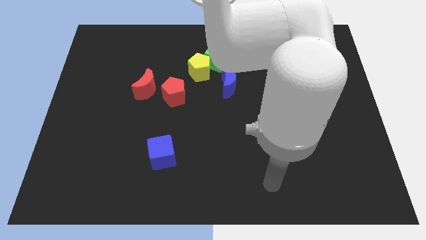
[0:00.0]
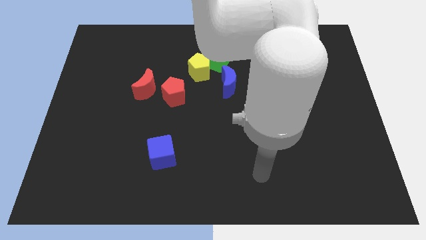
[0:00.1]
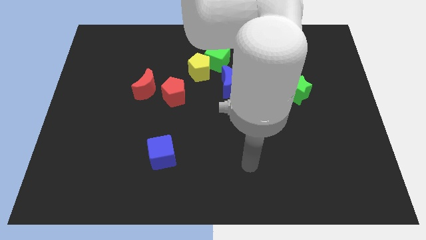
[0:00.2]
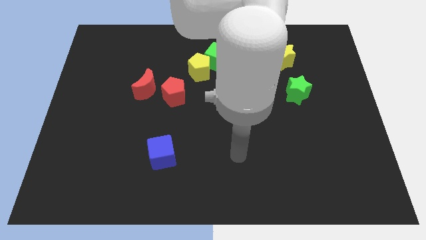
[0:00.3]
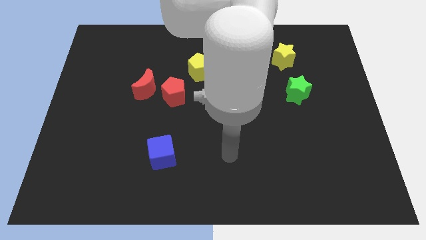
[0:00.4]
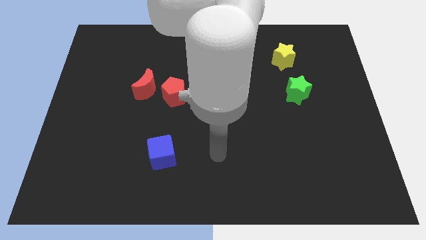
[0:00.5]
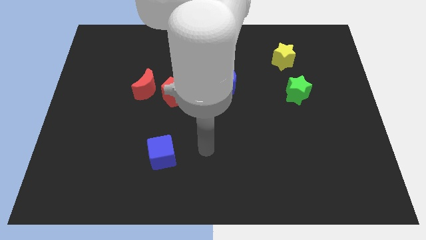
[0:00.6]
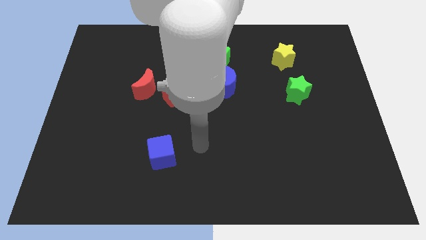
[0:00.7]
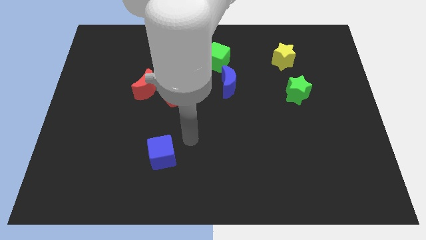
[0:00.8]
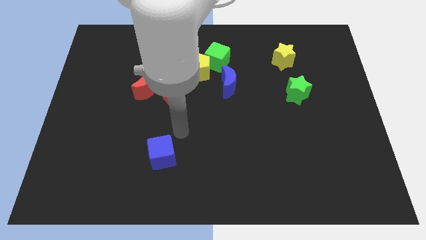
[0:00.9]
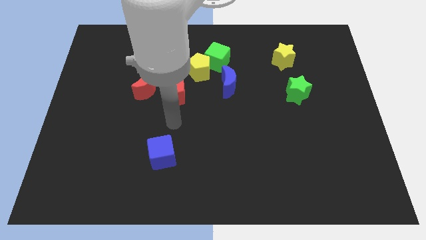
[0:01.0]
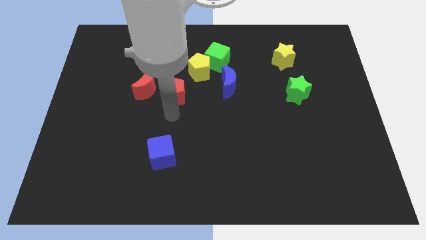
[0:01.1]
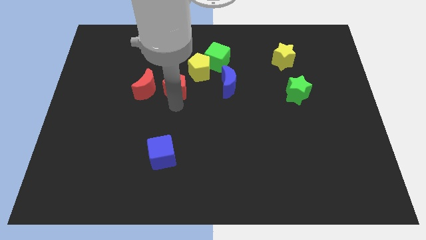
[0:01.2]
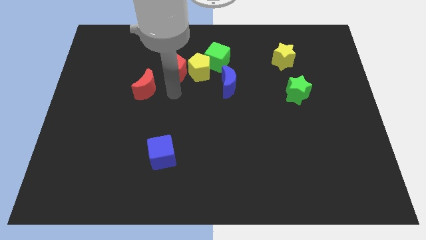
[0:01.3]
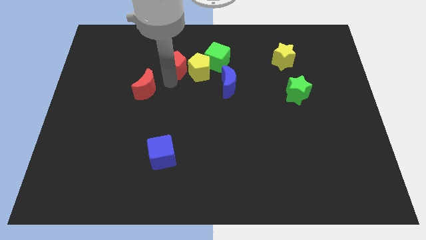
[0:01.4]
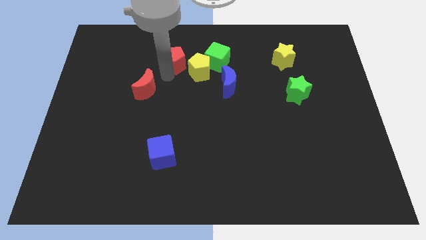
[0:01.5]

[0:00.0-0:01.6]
move the red moon away from the red pentagon

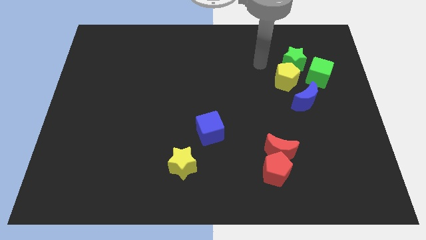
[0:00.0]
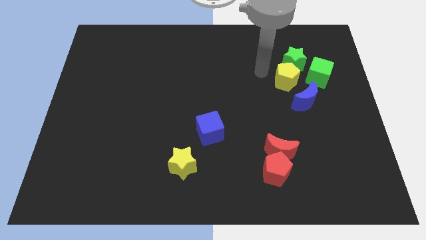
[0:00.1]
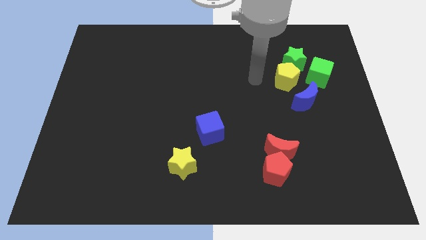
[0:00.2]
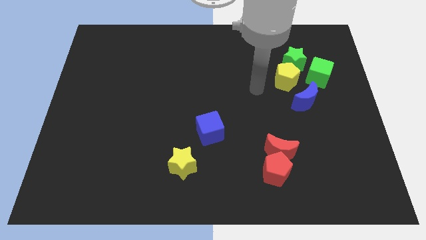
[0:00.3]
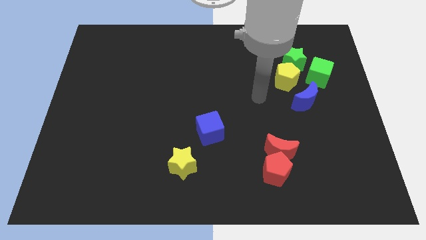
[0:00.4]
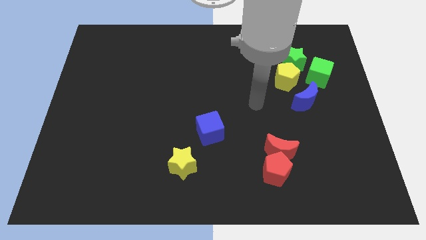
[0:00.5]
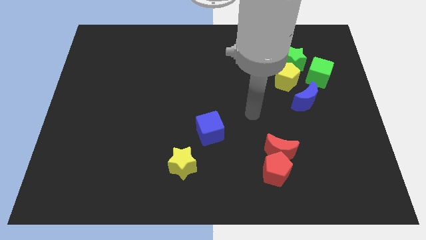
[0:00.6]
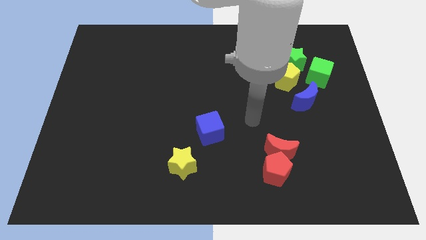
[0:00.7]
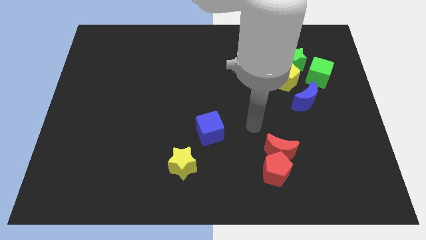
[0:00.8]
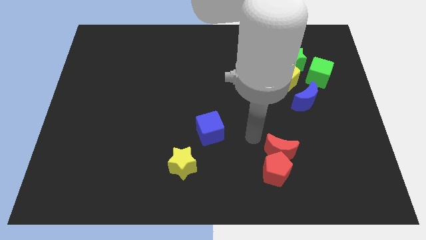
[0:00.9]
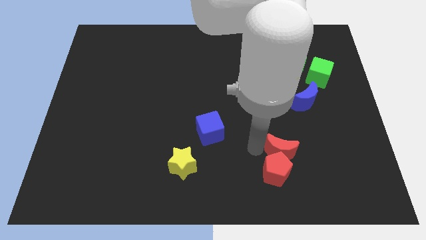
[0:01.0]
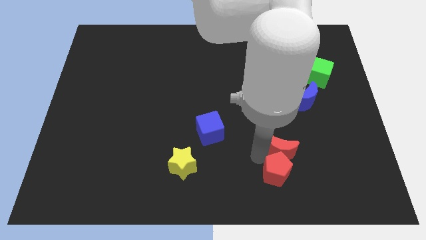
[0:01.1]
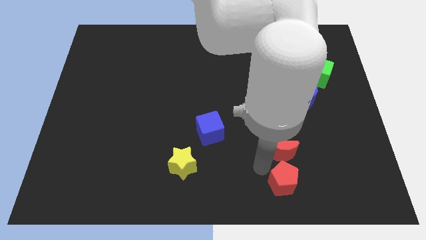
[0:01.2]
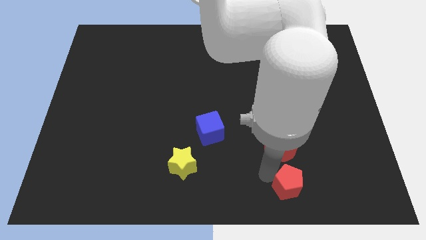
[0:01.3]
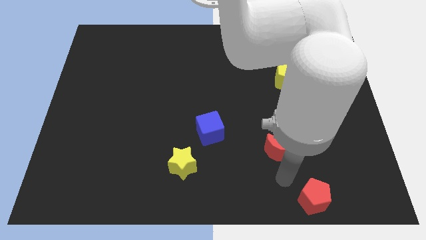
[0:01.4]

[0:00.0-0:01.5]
separate the red moon from the red pentagon

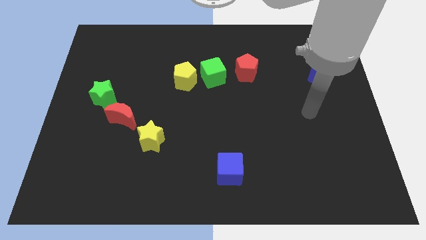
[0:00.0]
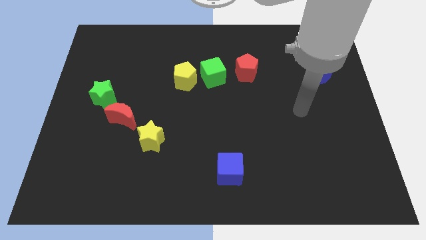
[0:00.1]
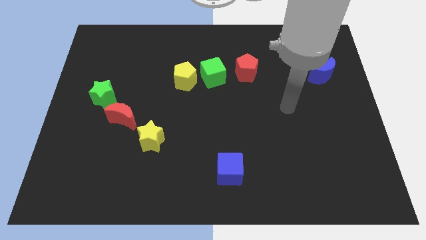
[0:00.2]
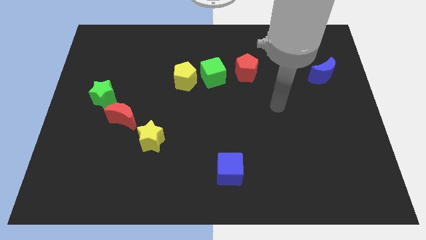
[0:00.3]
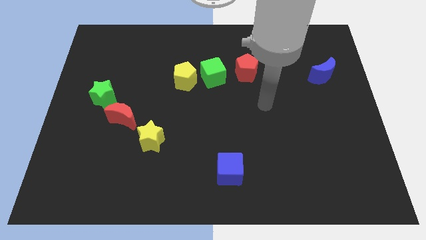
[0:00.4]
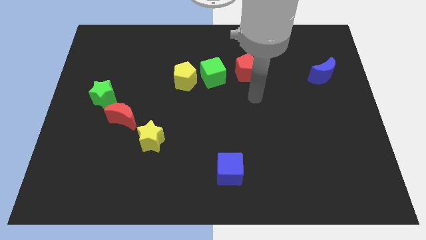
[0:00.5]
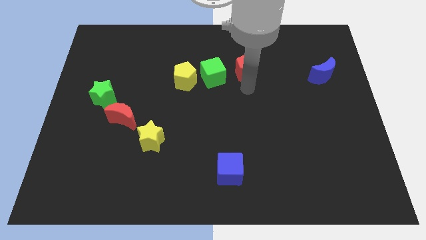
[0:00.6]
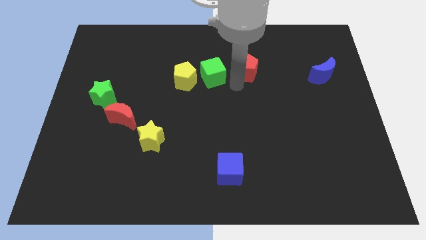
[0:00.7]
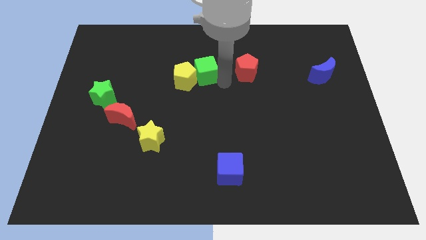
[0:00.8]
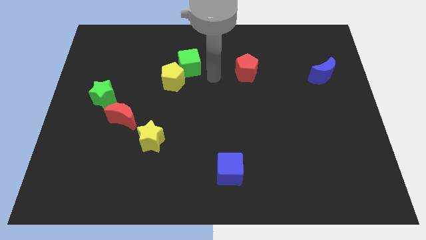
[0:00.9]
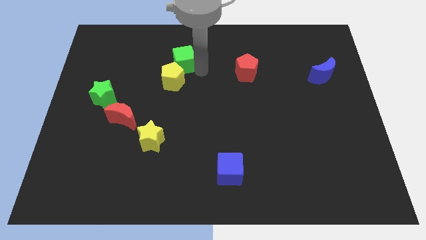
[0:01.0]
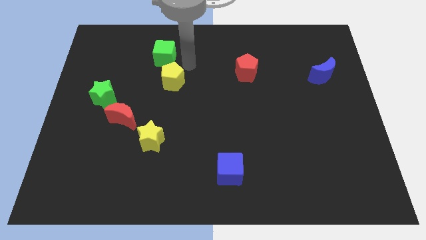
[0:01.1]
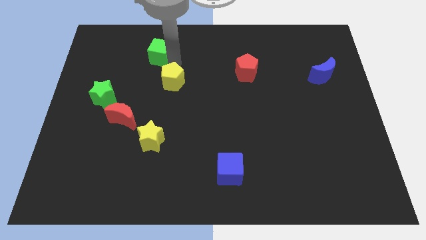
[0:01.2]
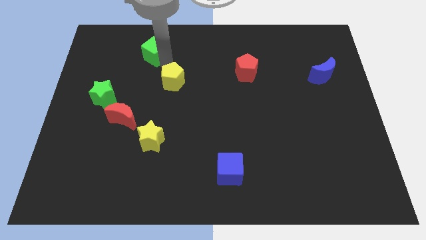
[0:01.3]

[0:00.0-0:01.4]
pull the yellow pentagon apart from the green cube

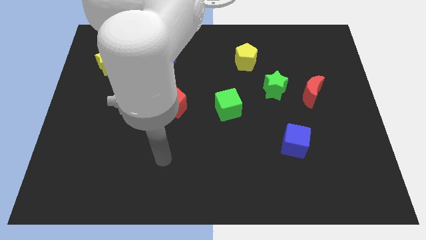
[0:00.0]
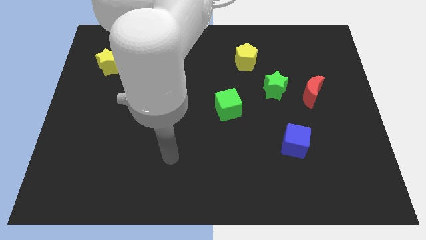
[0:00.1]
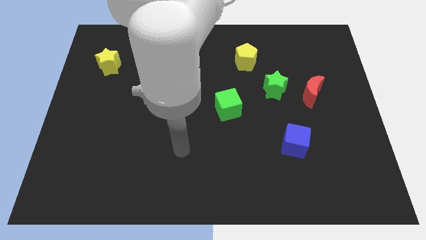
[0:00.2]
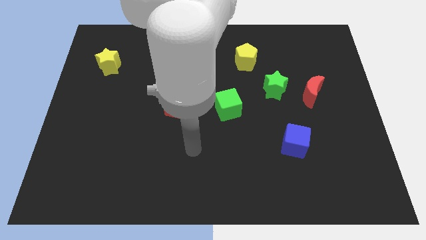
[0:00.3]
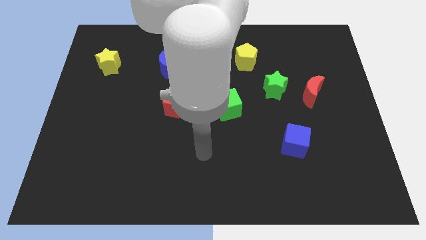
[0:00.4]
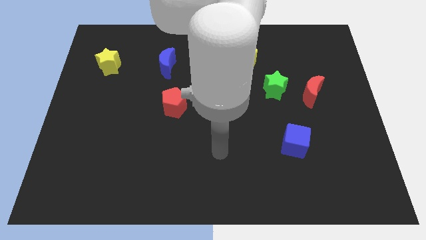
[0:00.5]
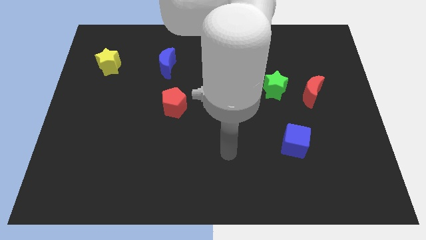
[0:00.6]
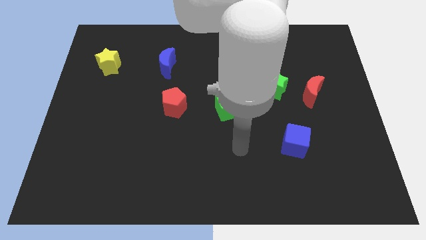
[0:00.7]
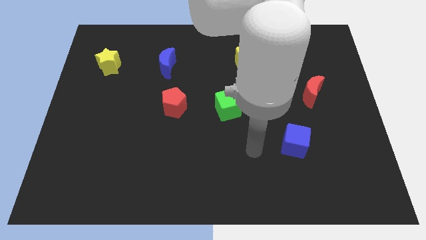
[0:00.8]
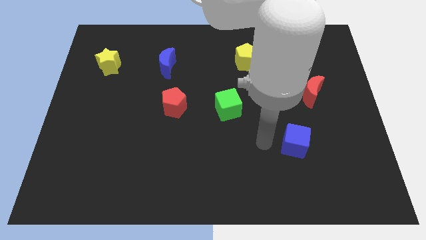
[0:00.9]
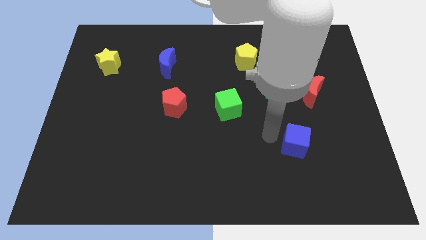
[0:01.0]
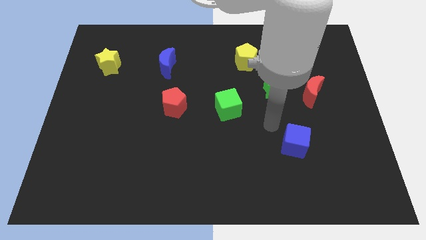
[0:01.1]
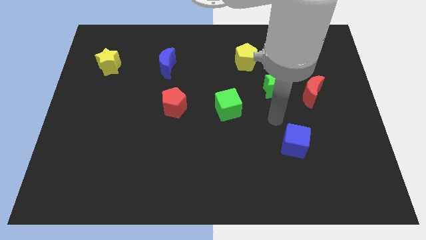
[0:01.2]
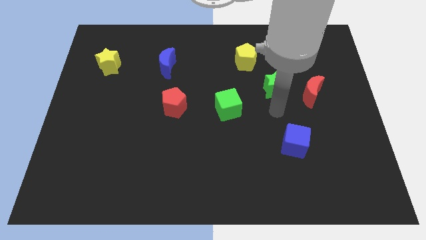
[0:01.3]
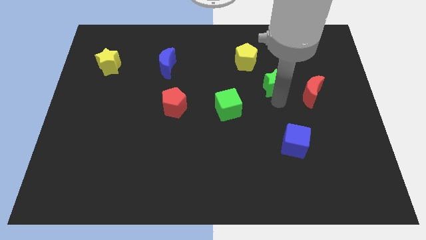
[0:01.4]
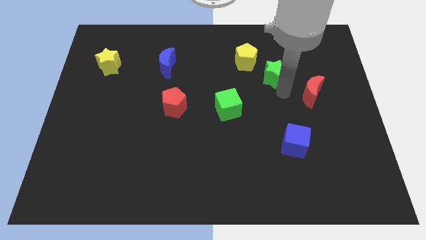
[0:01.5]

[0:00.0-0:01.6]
pull the red moon apart from the green star

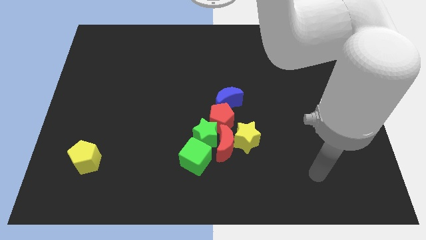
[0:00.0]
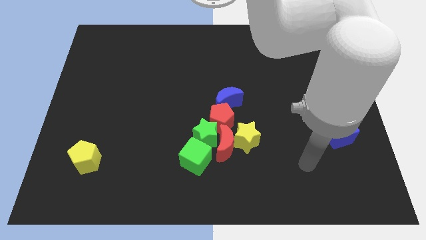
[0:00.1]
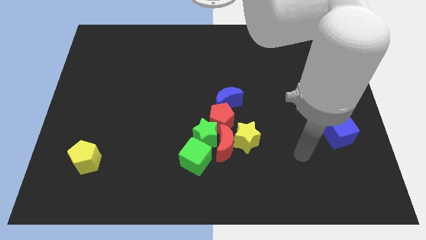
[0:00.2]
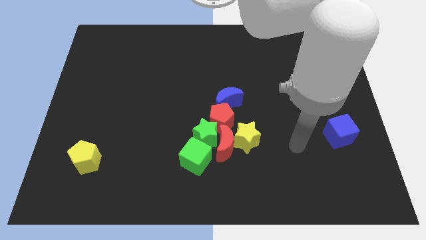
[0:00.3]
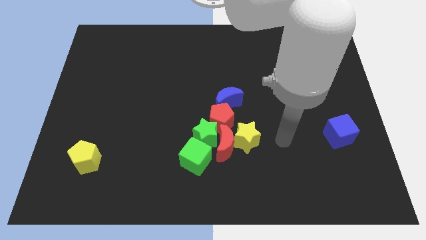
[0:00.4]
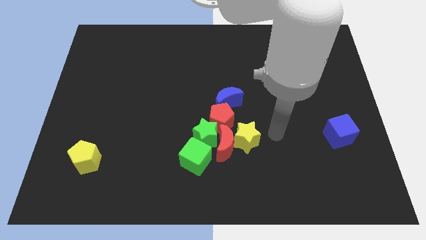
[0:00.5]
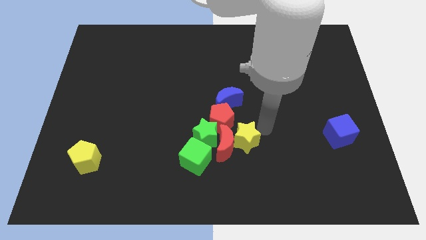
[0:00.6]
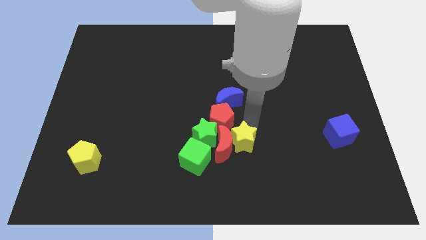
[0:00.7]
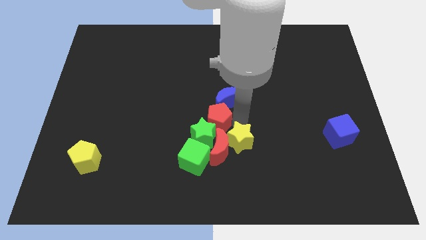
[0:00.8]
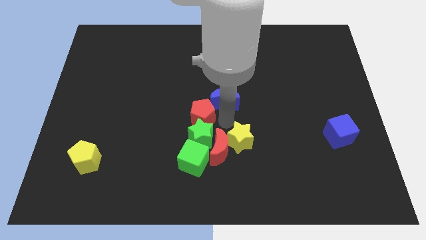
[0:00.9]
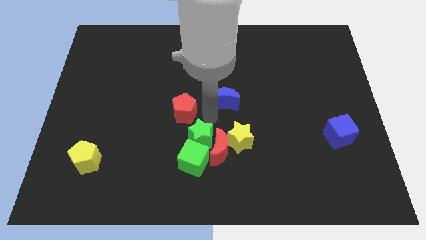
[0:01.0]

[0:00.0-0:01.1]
separate the blue moon from the red pentagon

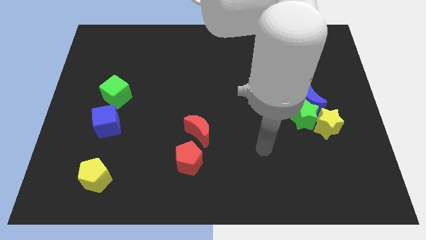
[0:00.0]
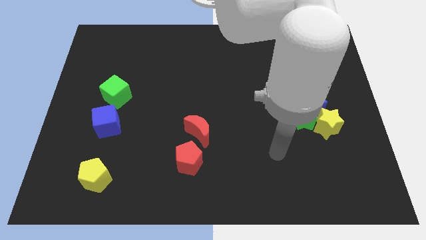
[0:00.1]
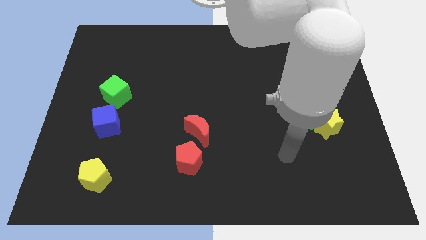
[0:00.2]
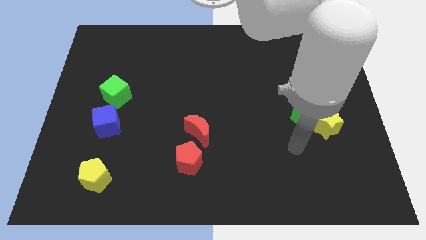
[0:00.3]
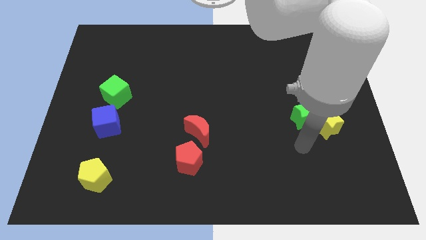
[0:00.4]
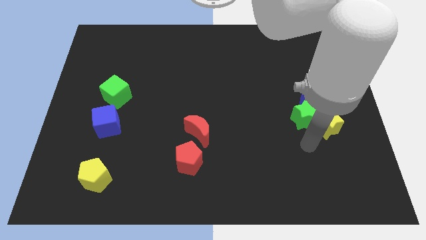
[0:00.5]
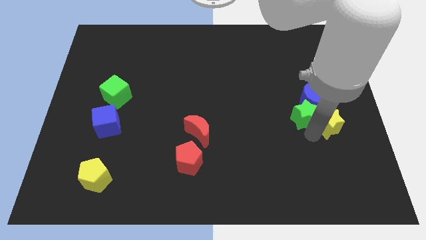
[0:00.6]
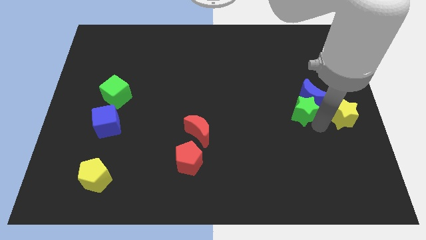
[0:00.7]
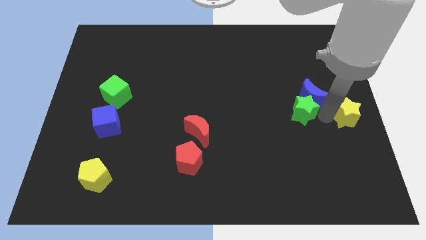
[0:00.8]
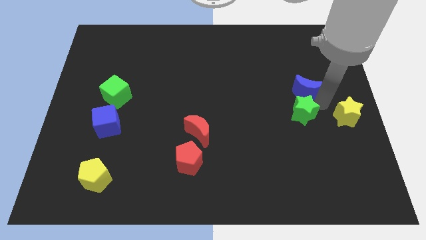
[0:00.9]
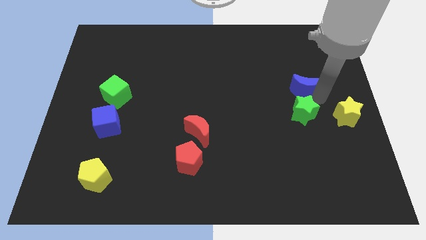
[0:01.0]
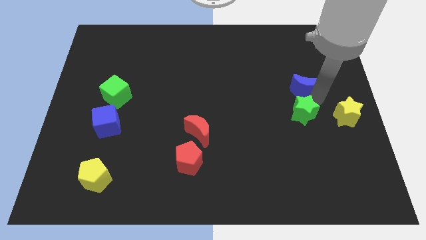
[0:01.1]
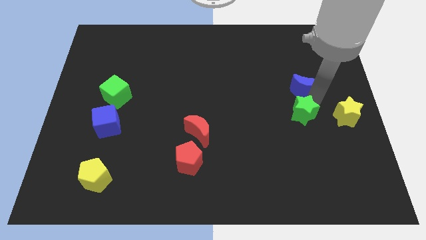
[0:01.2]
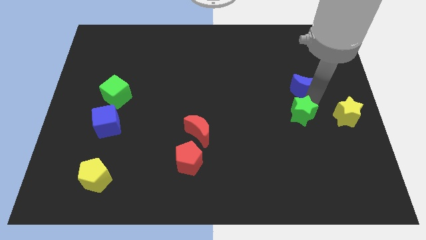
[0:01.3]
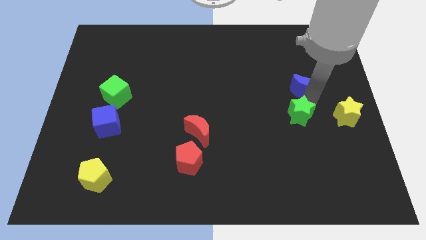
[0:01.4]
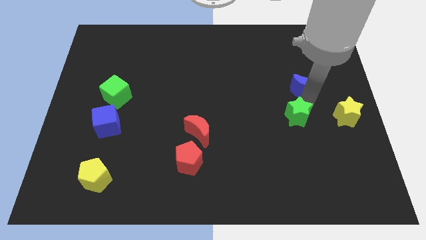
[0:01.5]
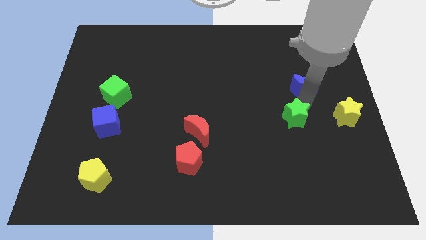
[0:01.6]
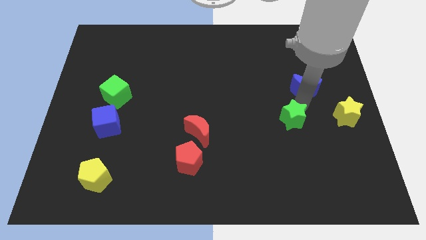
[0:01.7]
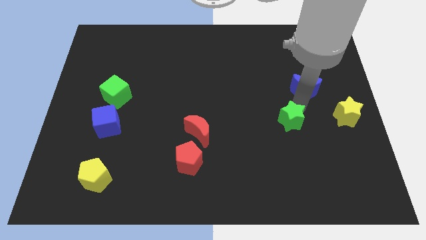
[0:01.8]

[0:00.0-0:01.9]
pull the green star apart from the blue moon and yellow star

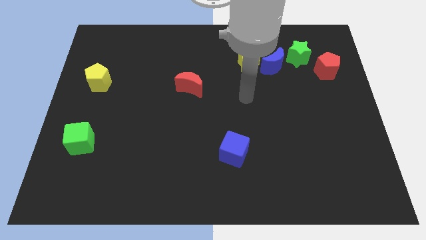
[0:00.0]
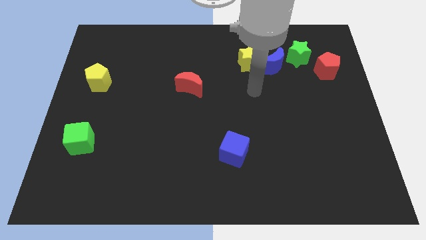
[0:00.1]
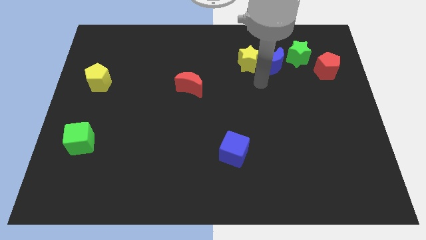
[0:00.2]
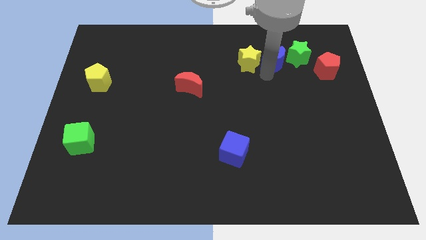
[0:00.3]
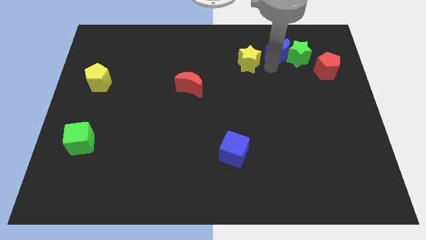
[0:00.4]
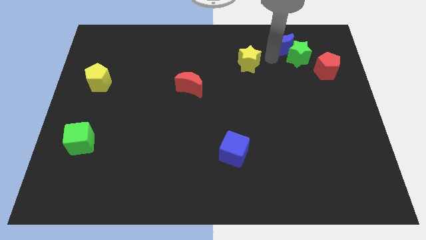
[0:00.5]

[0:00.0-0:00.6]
separate the yellow star from the blue moon
